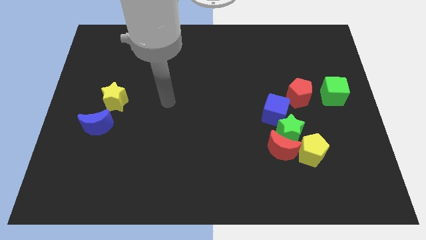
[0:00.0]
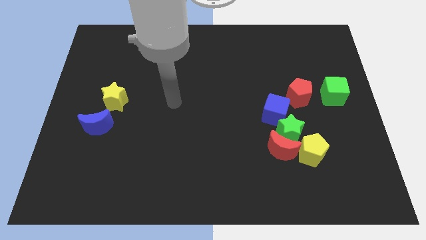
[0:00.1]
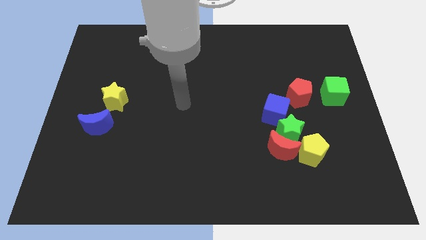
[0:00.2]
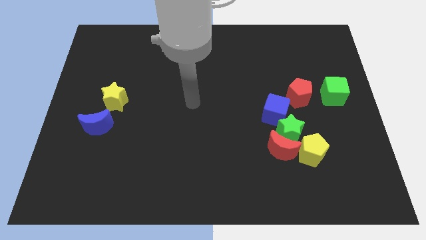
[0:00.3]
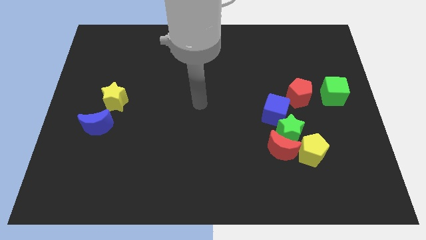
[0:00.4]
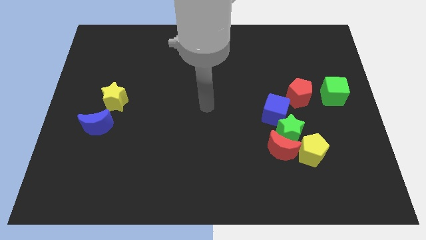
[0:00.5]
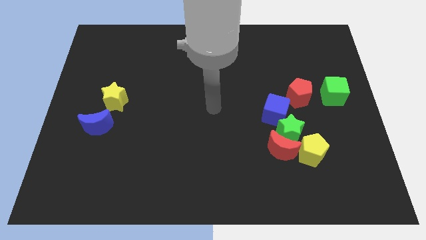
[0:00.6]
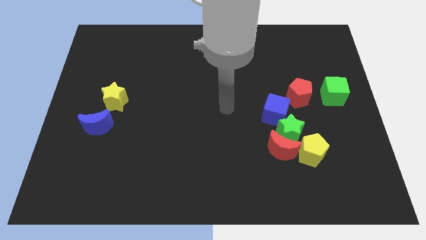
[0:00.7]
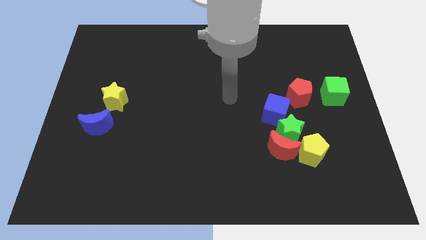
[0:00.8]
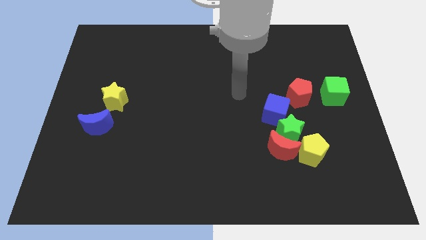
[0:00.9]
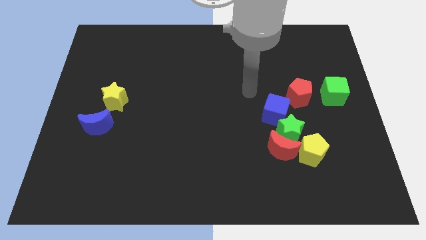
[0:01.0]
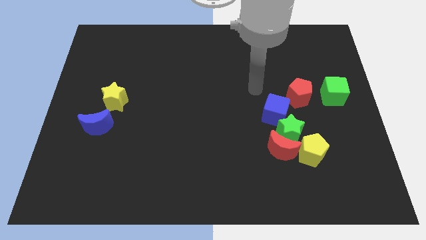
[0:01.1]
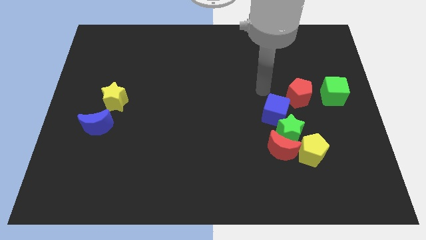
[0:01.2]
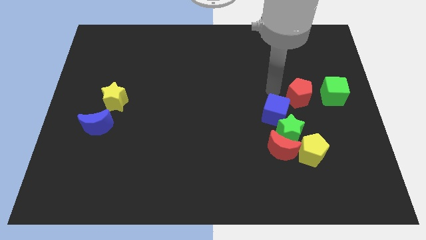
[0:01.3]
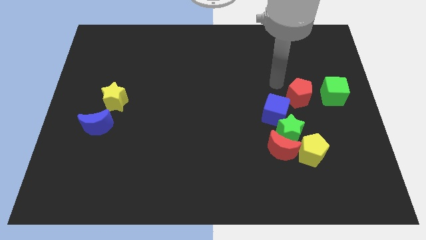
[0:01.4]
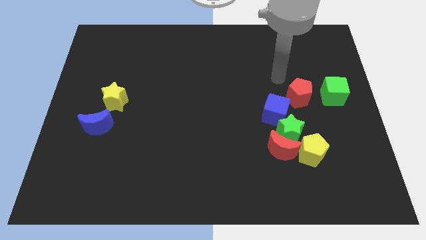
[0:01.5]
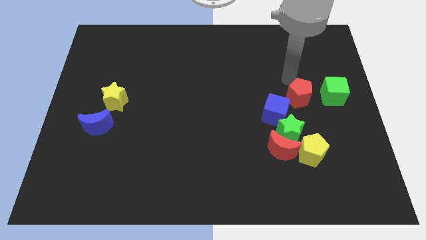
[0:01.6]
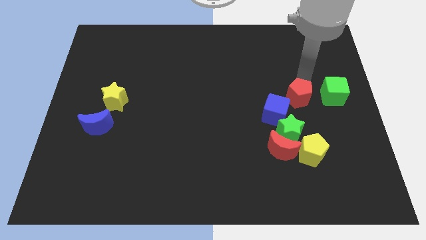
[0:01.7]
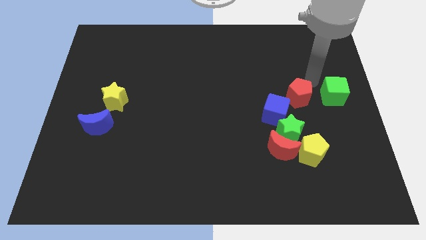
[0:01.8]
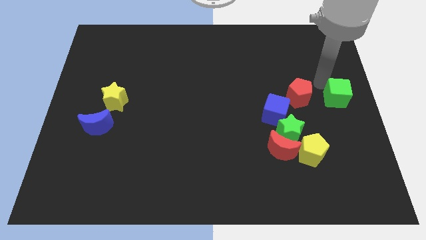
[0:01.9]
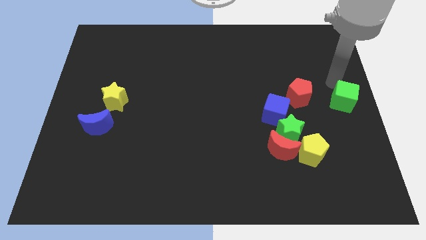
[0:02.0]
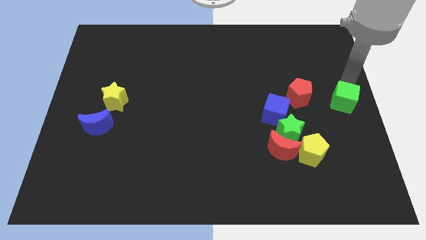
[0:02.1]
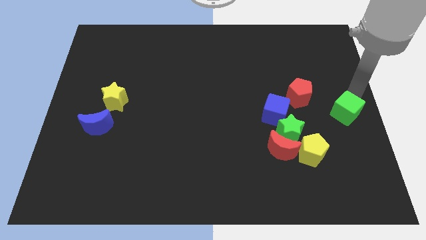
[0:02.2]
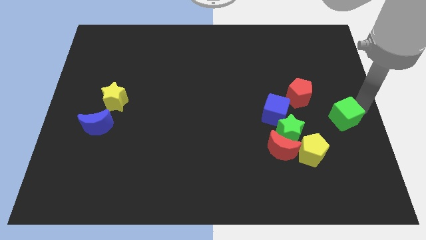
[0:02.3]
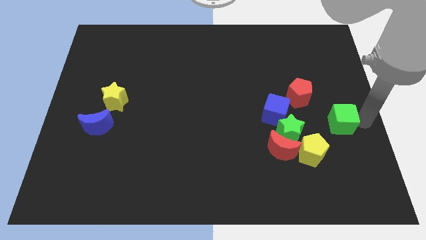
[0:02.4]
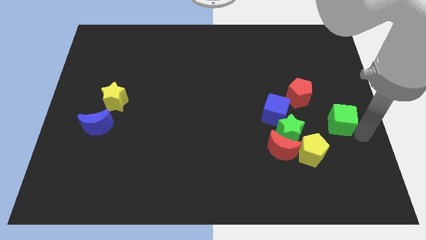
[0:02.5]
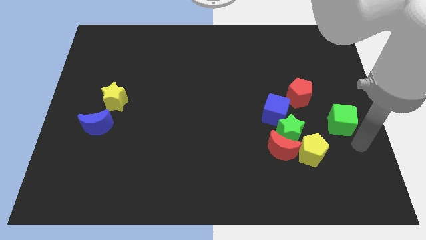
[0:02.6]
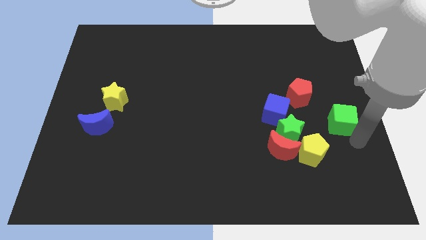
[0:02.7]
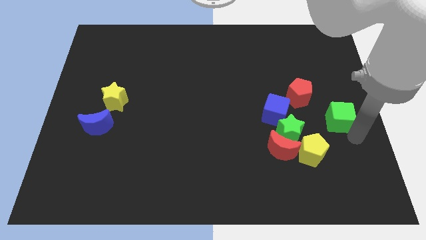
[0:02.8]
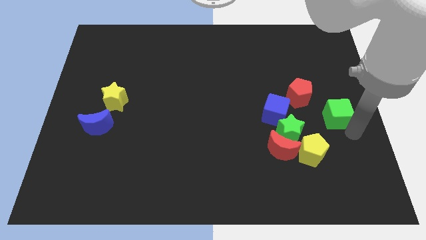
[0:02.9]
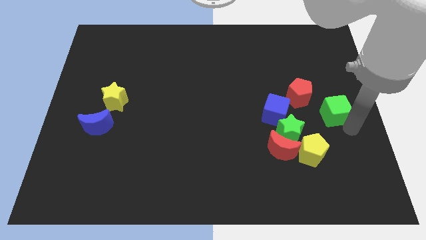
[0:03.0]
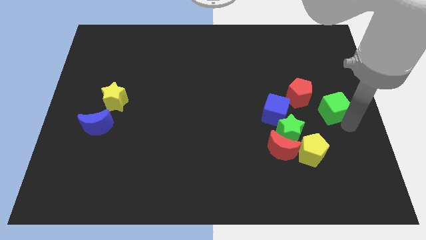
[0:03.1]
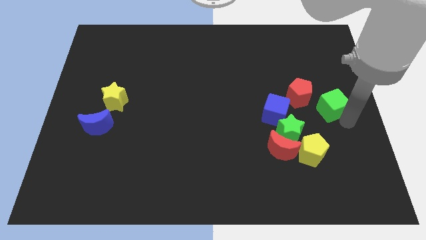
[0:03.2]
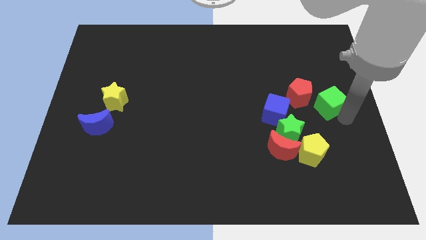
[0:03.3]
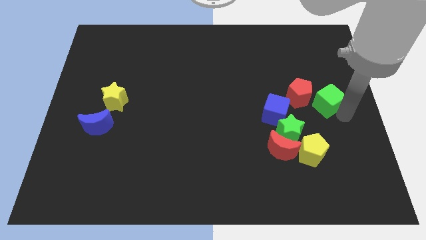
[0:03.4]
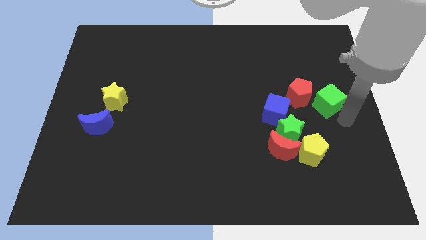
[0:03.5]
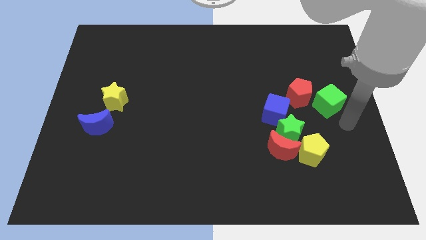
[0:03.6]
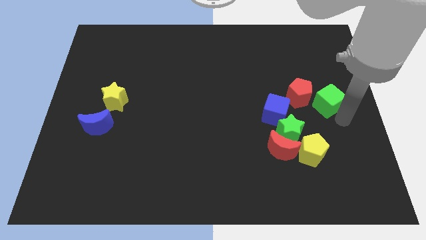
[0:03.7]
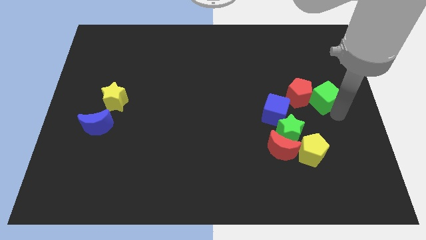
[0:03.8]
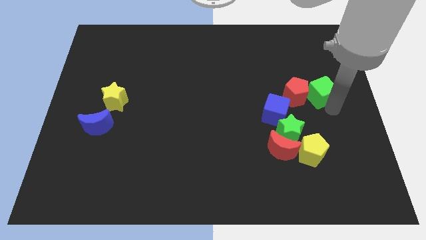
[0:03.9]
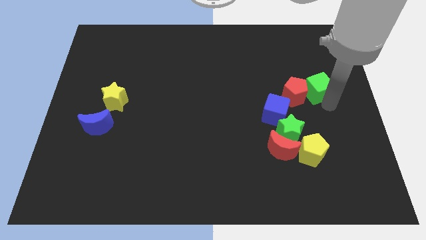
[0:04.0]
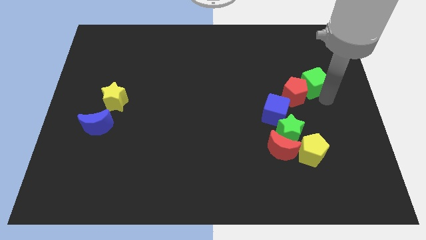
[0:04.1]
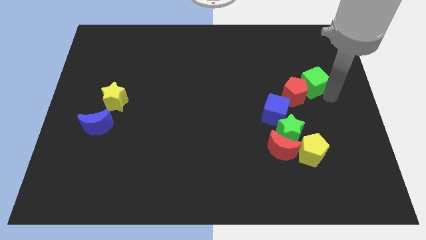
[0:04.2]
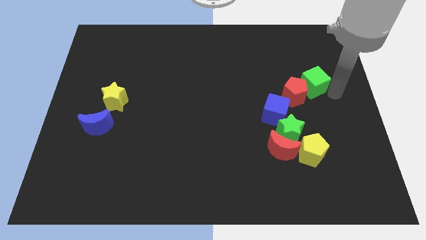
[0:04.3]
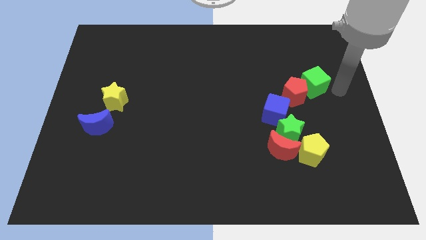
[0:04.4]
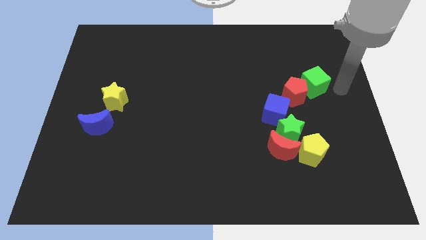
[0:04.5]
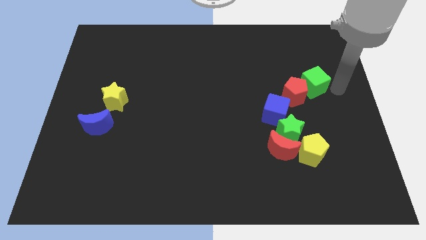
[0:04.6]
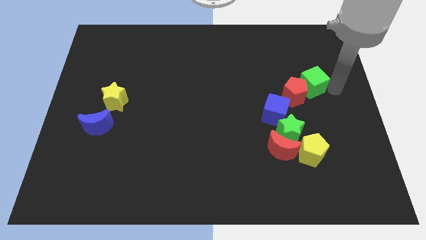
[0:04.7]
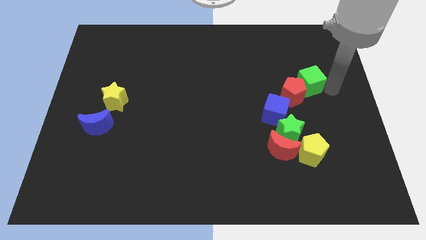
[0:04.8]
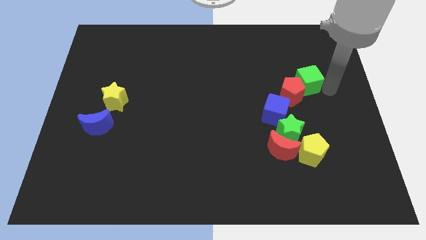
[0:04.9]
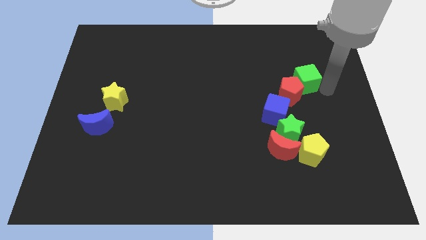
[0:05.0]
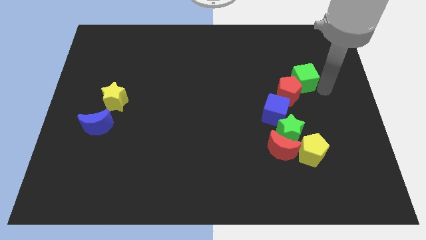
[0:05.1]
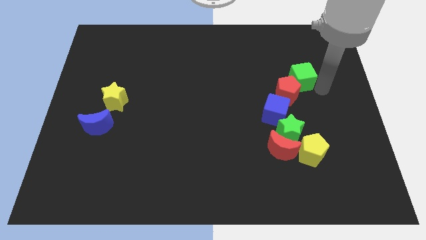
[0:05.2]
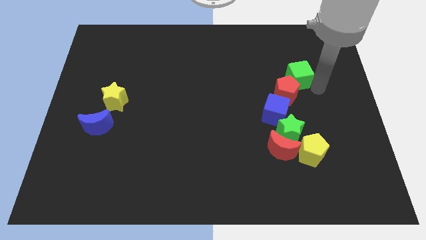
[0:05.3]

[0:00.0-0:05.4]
push the green cube left a little

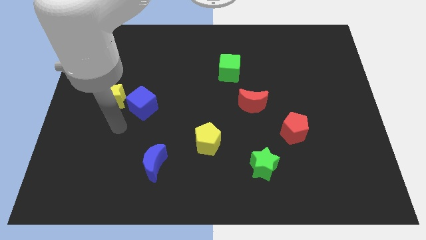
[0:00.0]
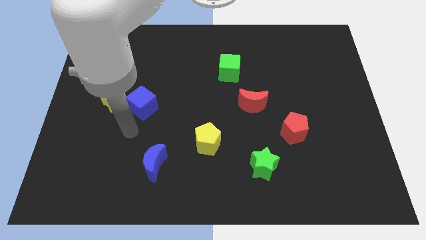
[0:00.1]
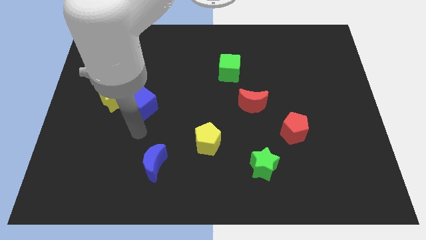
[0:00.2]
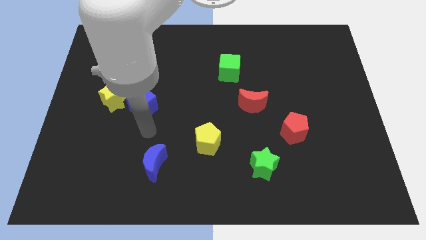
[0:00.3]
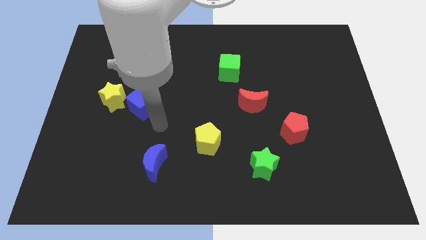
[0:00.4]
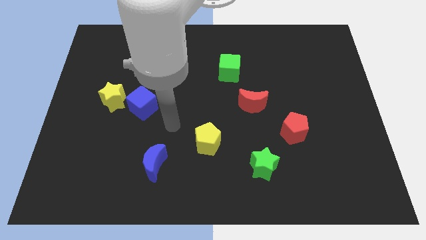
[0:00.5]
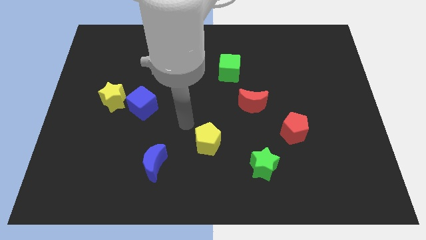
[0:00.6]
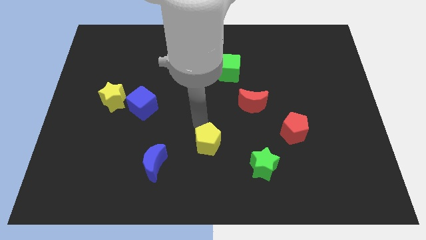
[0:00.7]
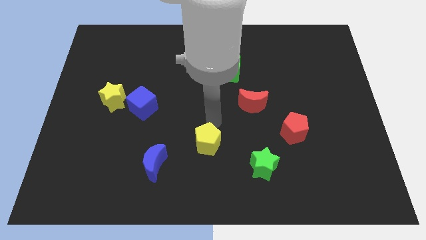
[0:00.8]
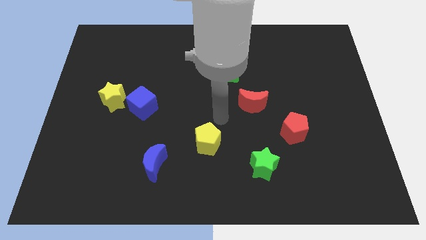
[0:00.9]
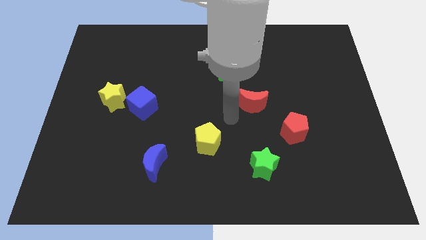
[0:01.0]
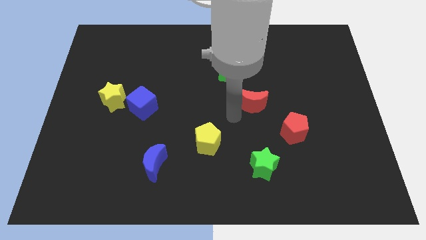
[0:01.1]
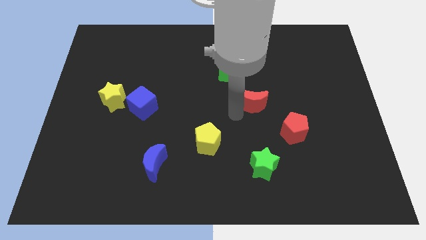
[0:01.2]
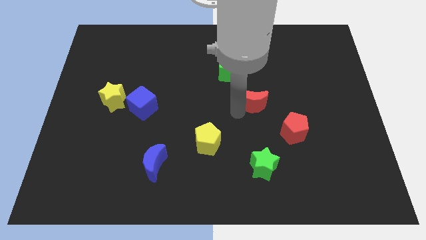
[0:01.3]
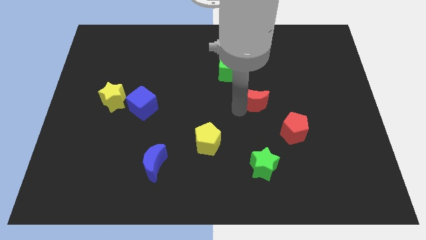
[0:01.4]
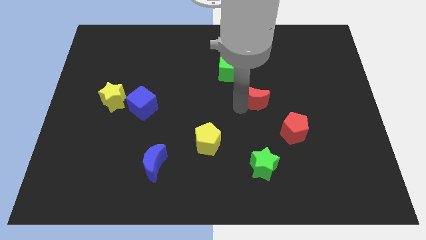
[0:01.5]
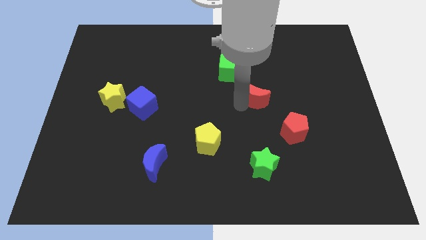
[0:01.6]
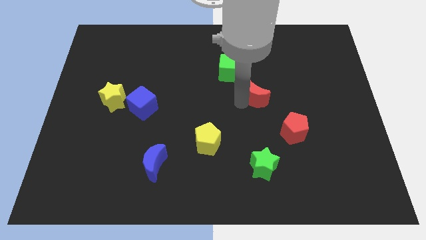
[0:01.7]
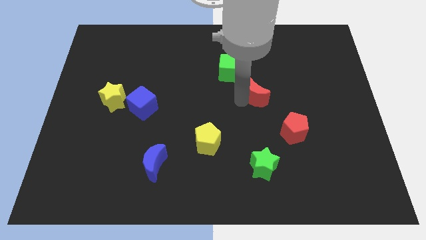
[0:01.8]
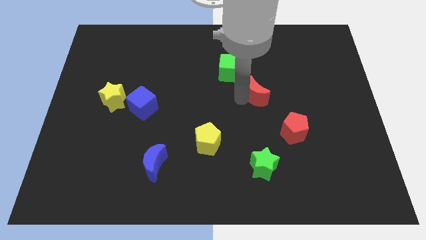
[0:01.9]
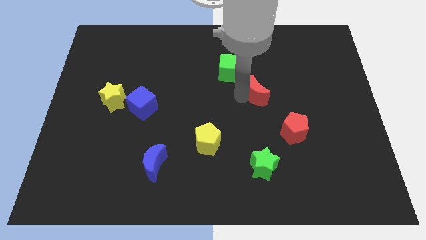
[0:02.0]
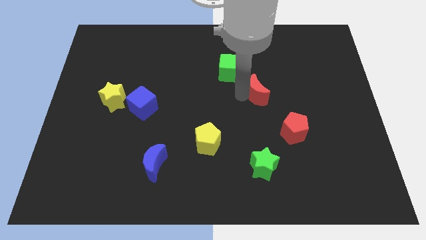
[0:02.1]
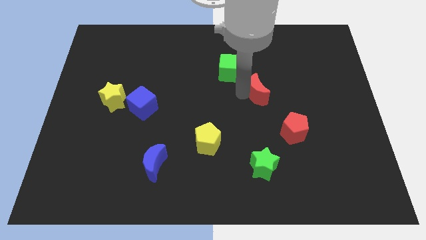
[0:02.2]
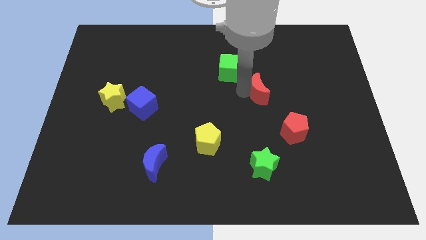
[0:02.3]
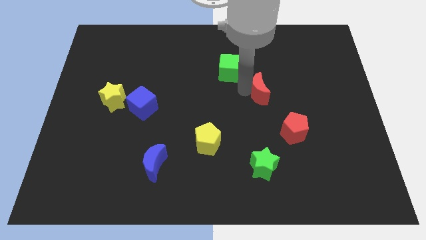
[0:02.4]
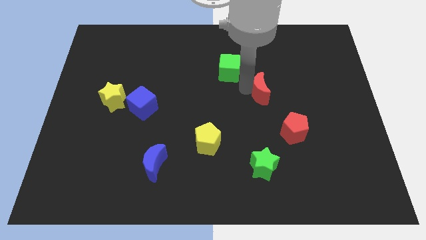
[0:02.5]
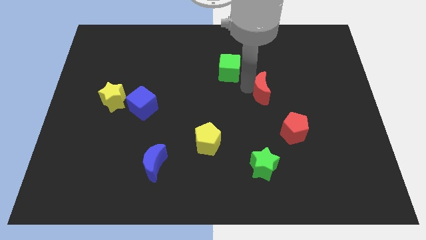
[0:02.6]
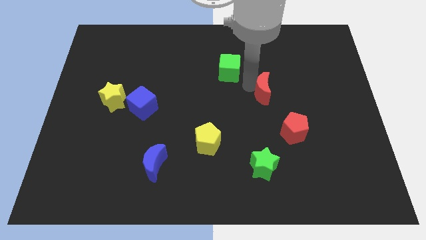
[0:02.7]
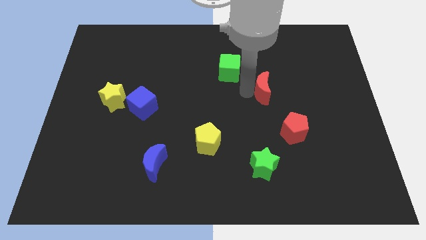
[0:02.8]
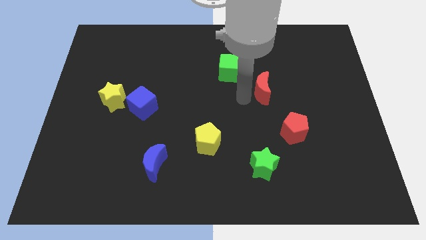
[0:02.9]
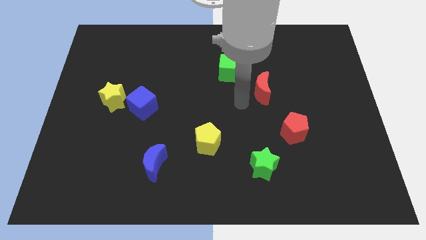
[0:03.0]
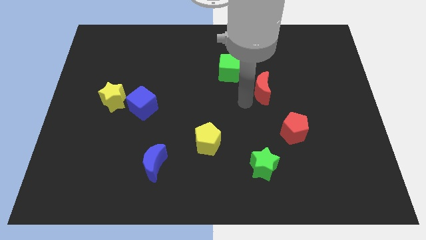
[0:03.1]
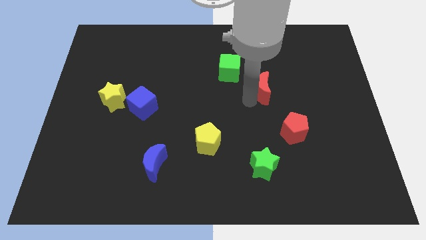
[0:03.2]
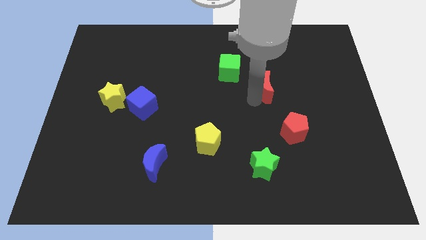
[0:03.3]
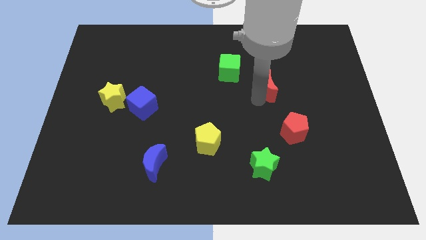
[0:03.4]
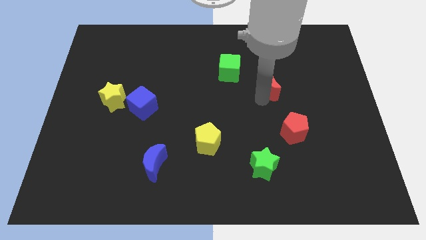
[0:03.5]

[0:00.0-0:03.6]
slide the red moon upwards and right diagonally a bit
